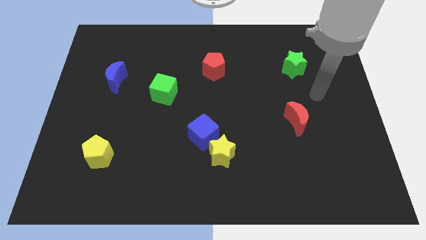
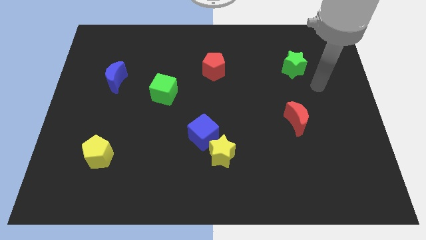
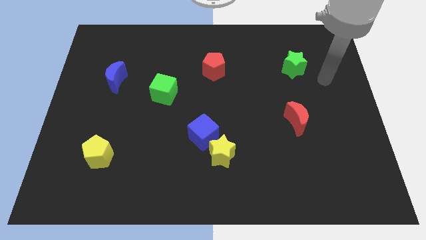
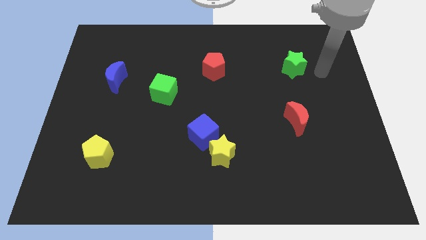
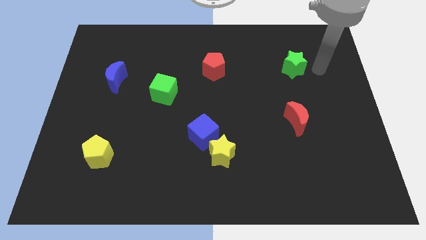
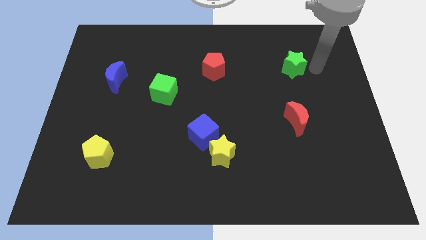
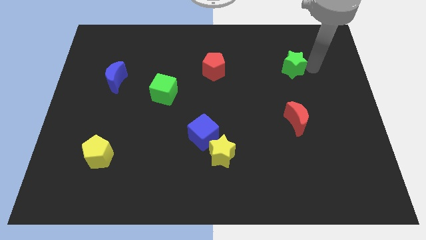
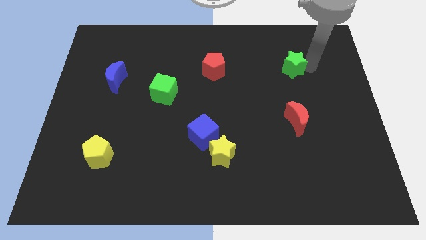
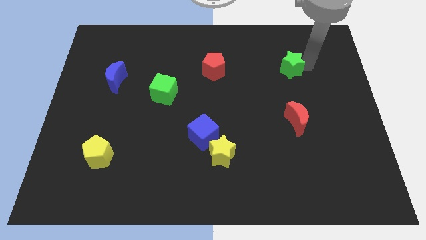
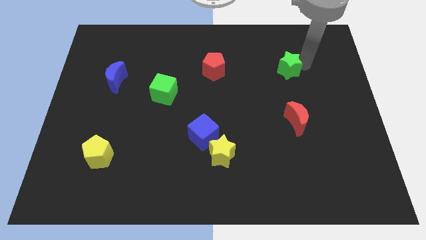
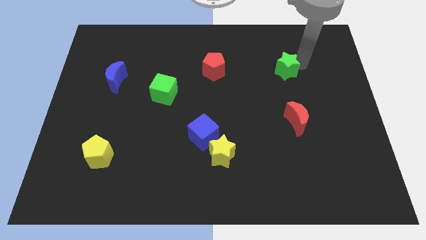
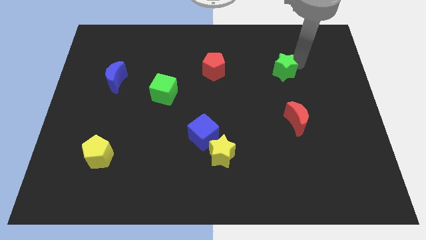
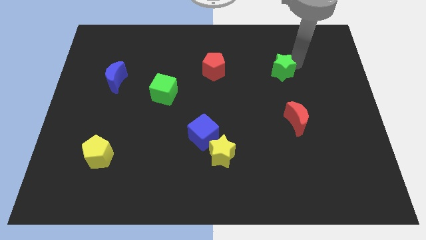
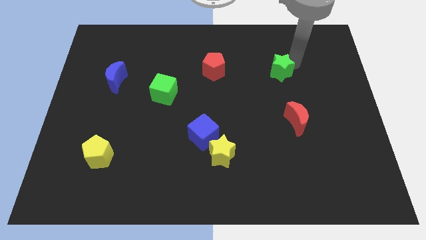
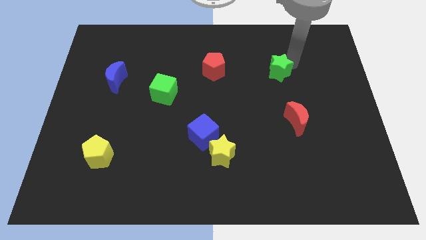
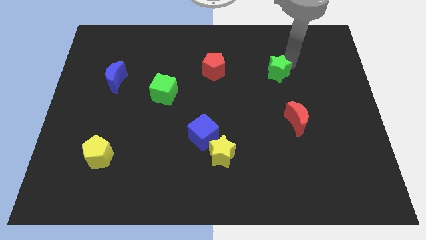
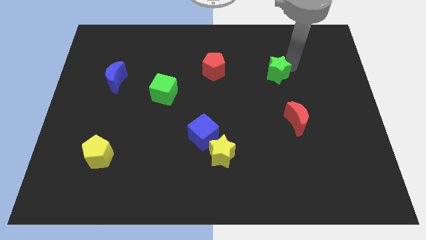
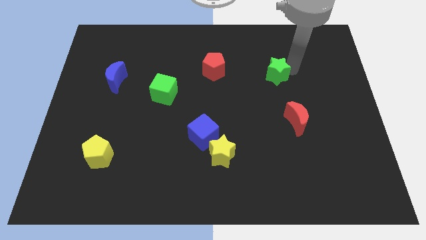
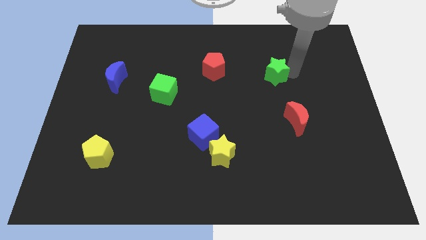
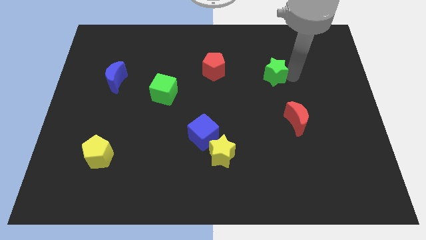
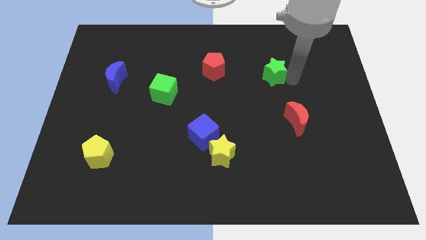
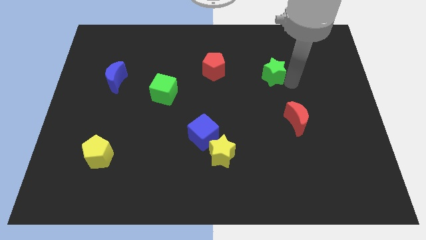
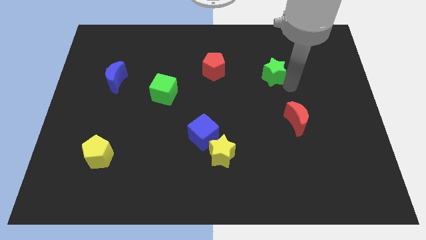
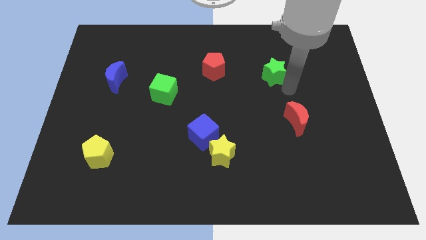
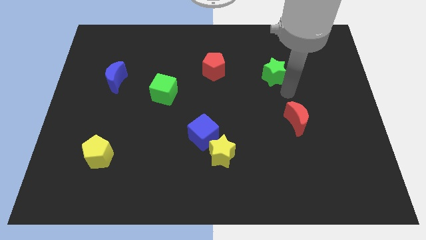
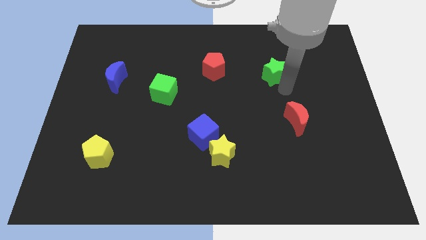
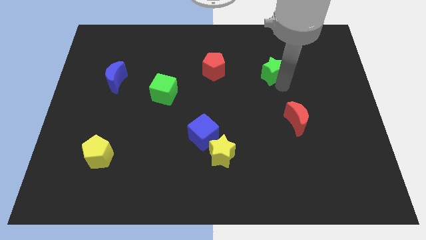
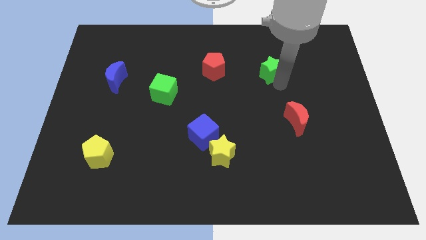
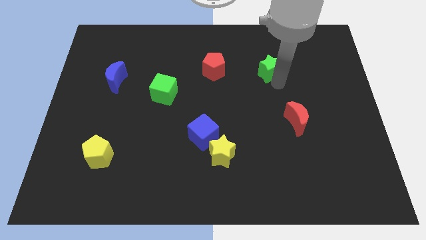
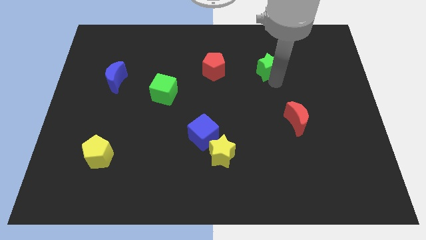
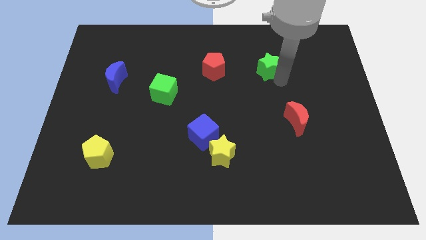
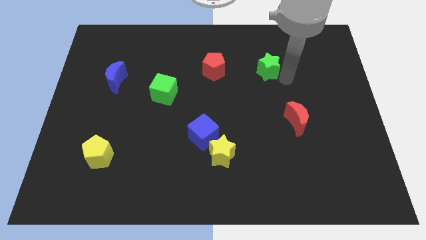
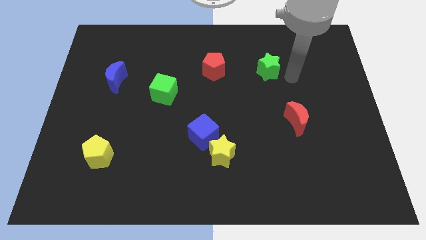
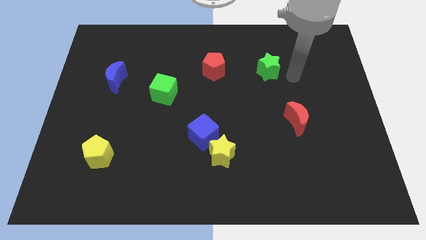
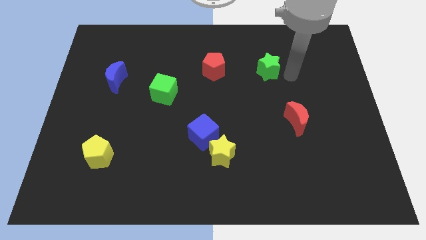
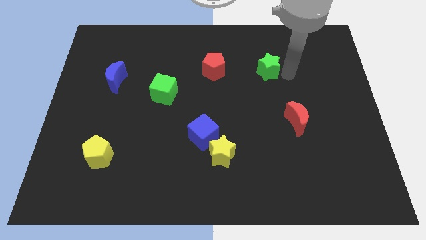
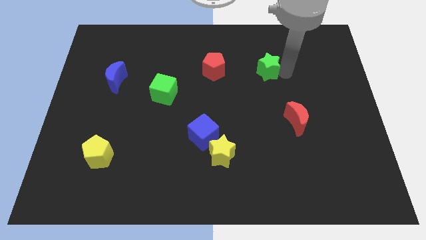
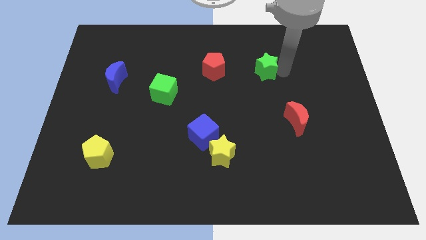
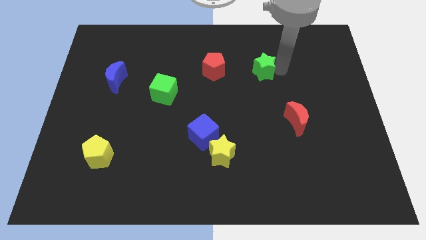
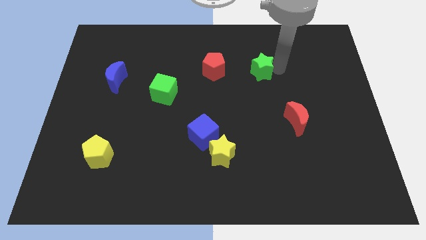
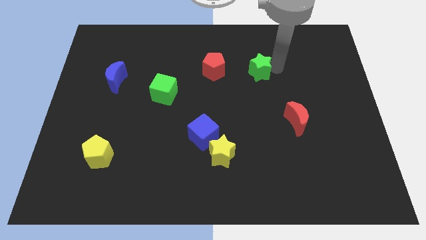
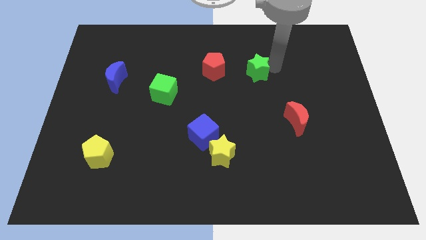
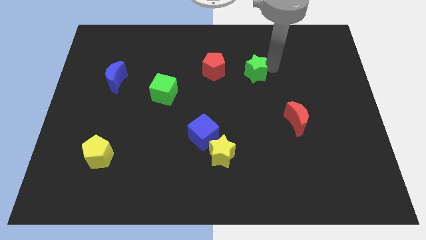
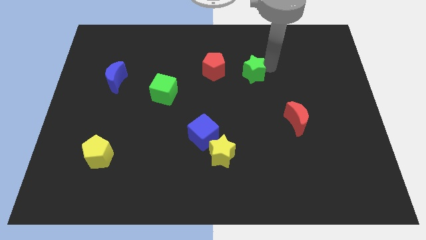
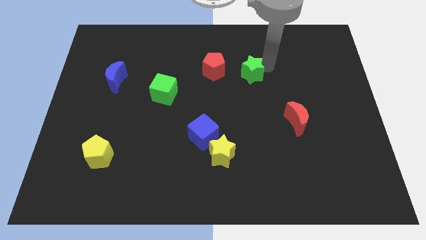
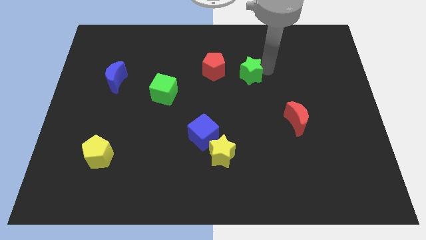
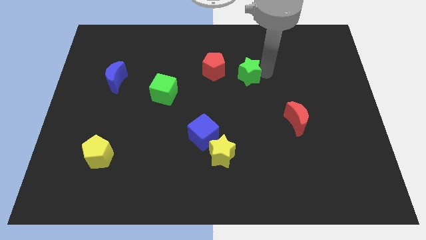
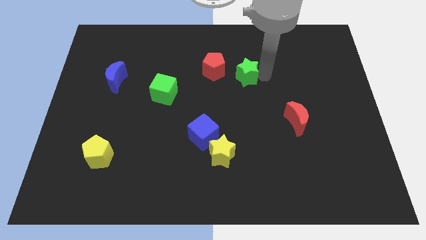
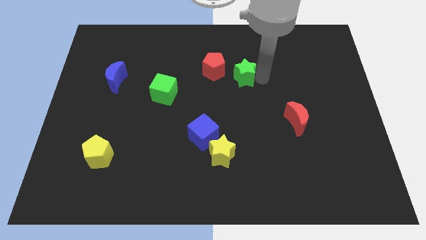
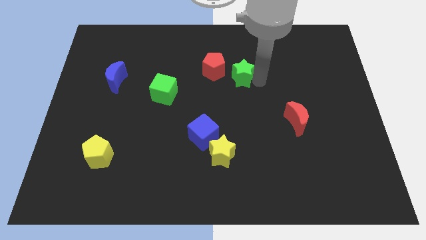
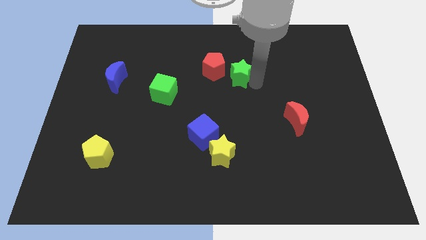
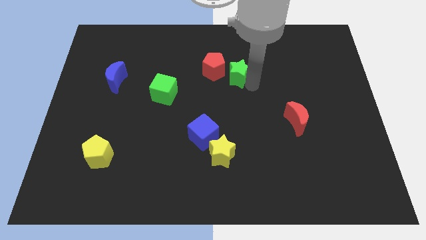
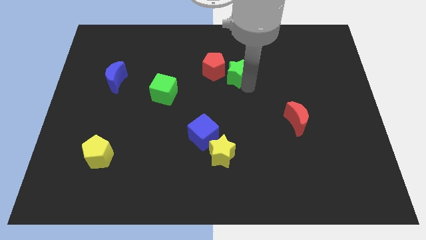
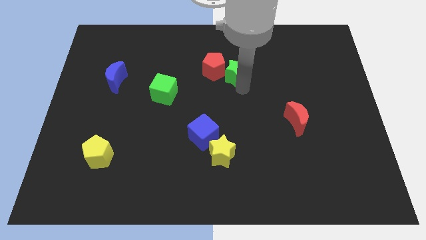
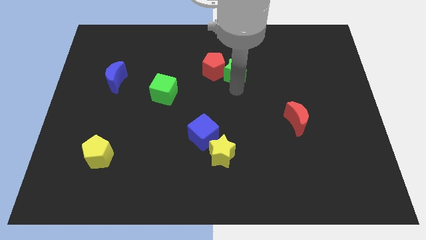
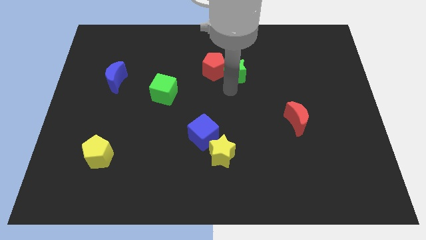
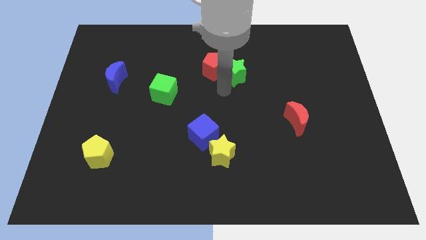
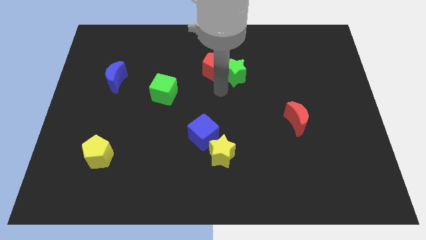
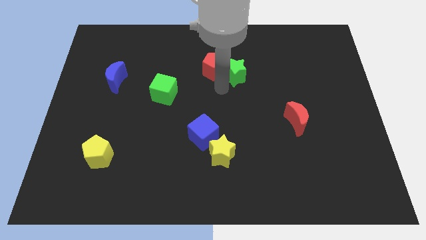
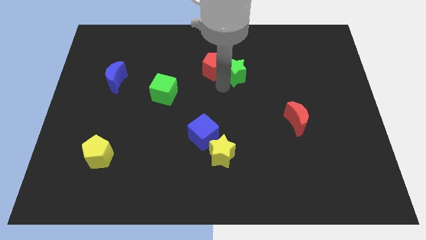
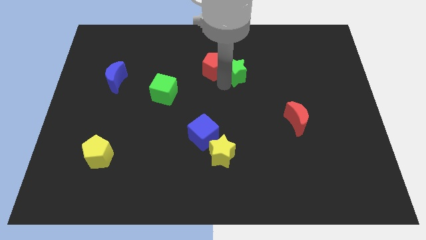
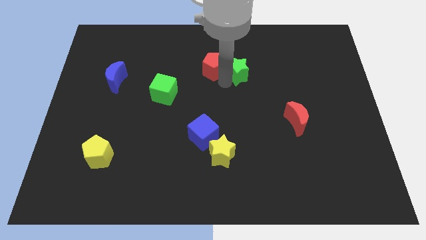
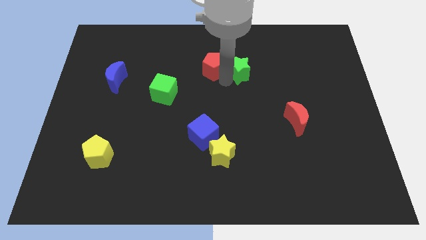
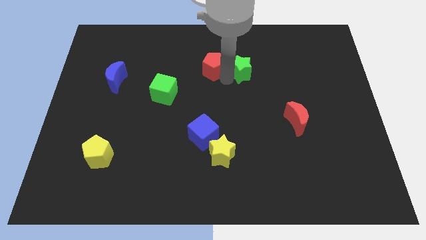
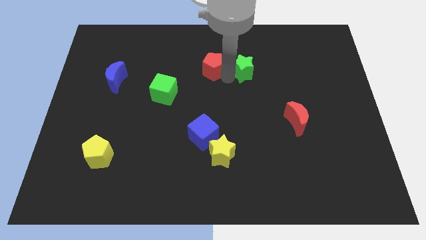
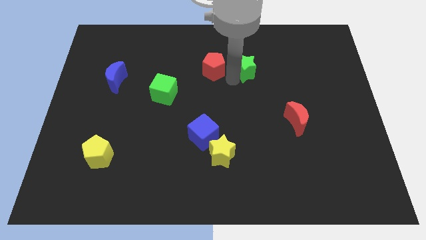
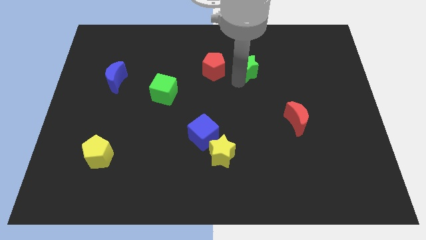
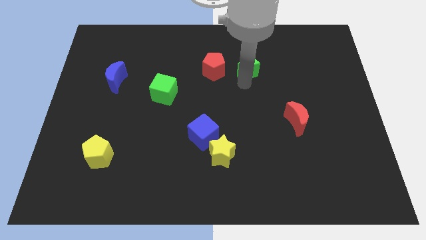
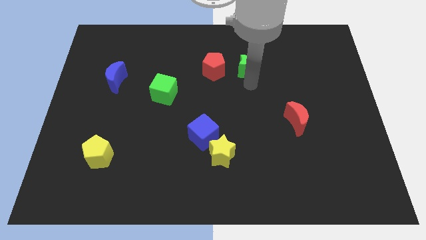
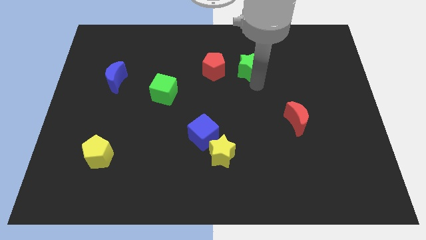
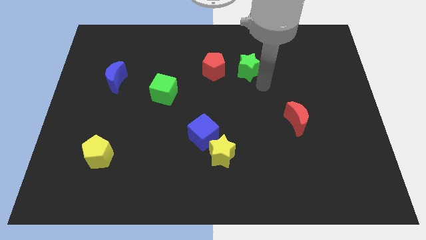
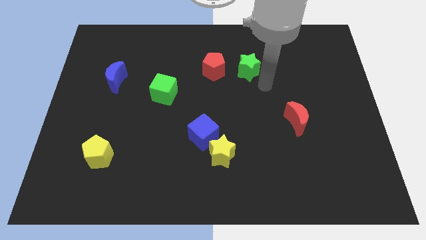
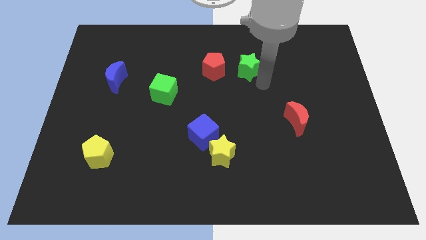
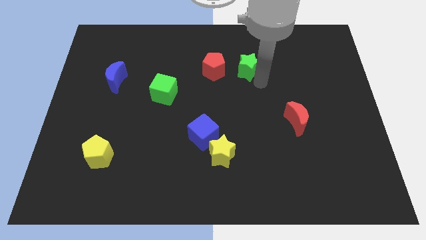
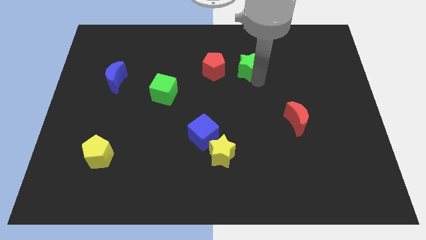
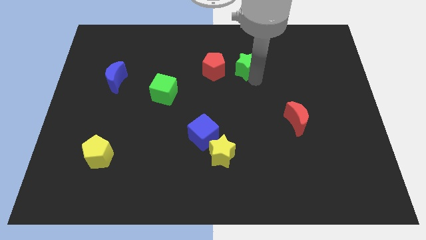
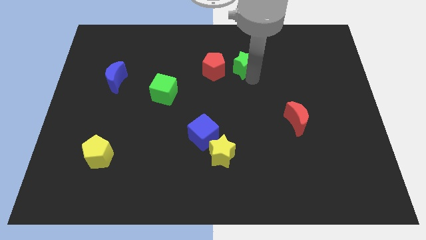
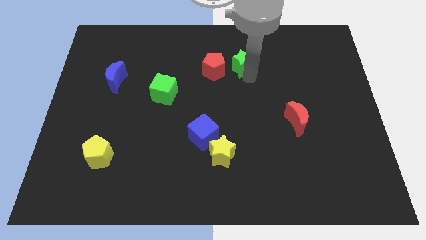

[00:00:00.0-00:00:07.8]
slide the green star diagonally up and to the right of the red pentagon

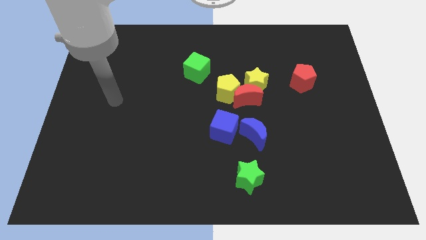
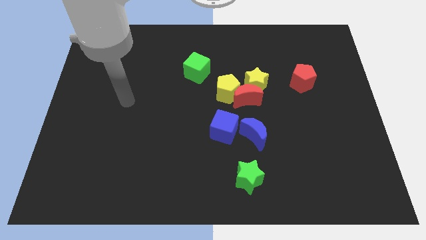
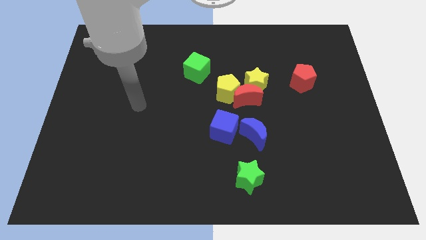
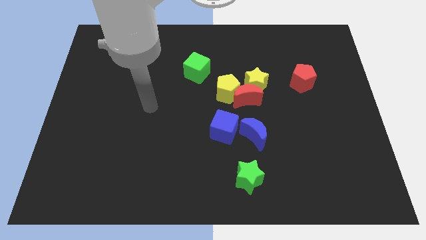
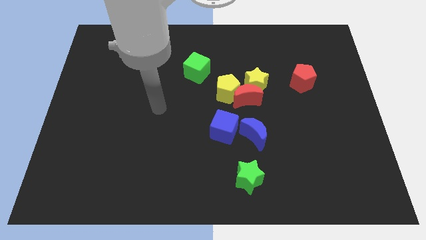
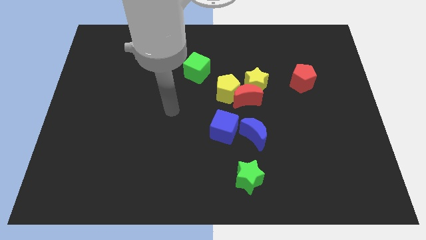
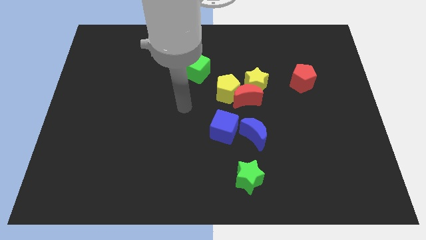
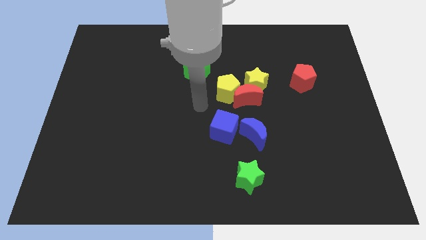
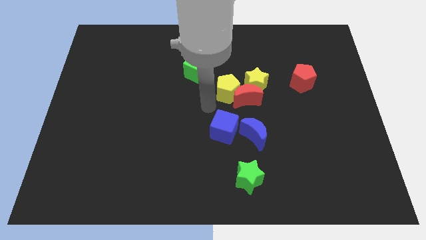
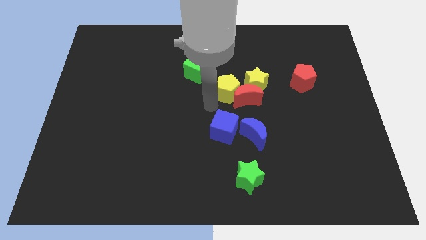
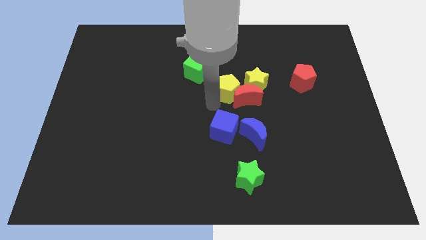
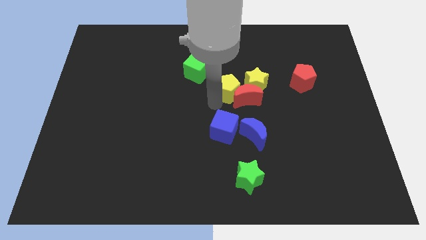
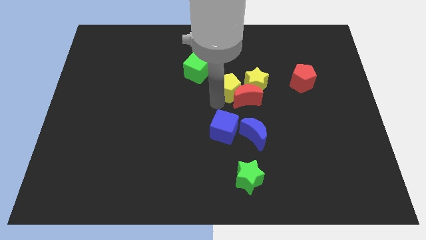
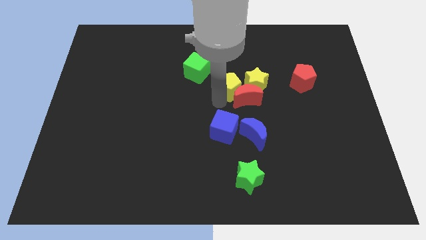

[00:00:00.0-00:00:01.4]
push the yellow pentagon to the top of the red moon
